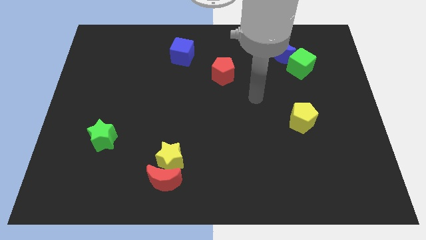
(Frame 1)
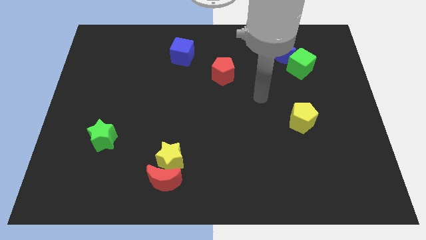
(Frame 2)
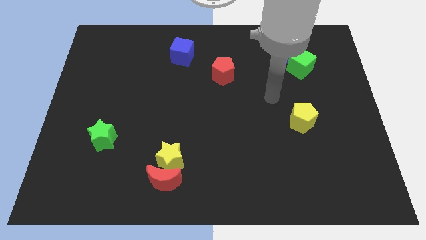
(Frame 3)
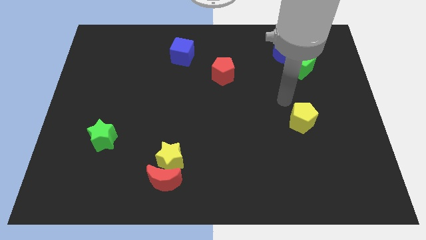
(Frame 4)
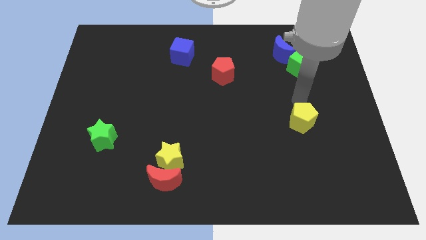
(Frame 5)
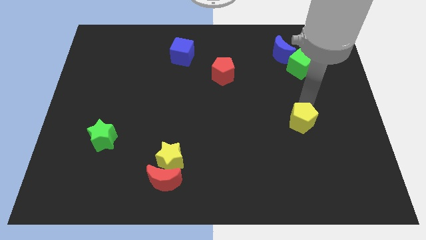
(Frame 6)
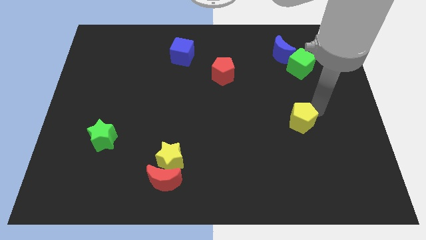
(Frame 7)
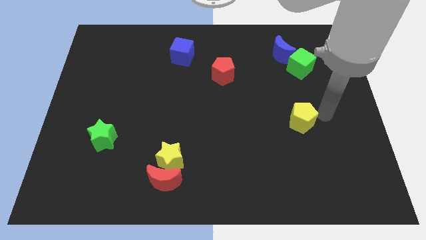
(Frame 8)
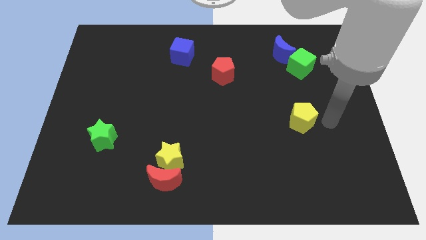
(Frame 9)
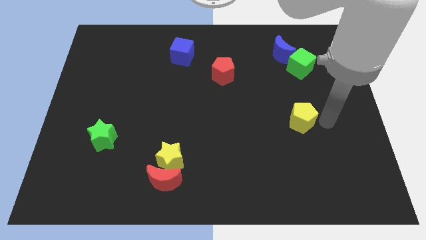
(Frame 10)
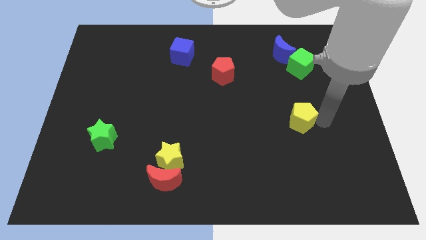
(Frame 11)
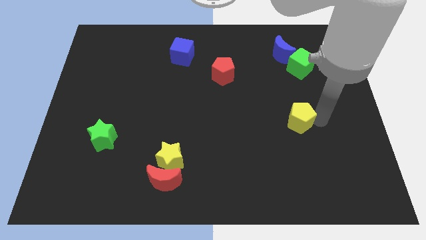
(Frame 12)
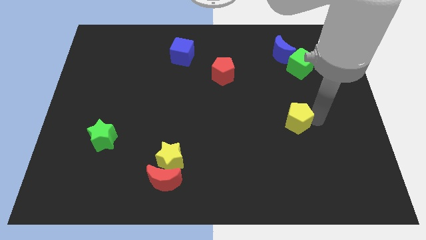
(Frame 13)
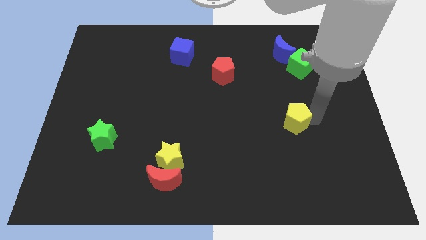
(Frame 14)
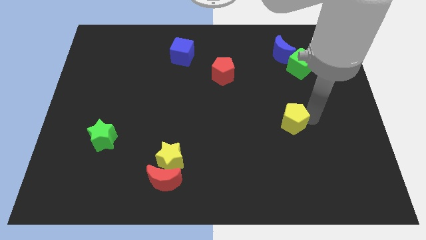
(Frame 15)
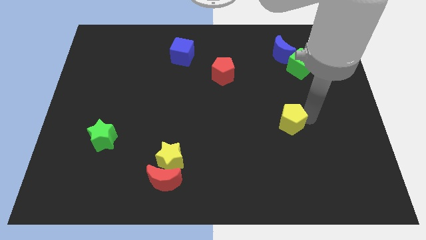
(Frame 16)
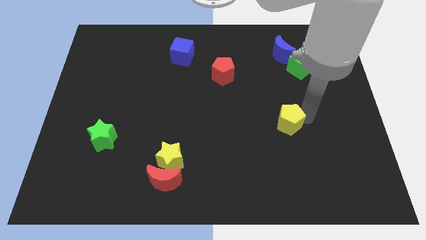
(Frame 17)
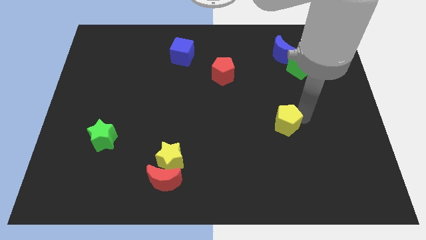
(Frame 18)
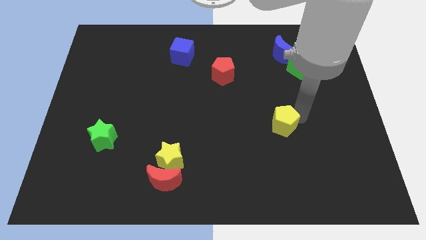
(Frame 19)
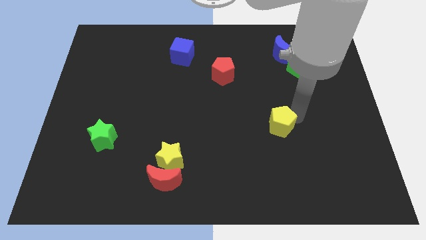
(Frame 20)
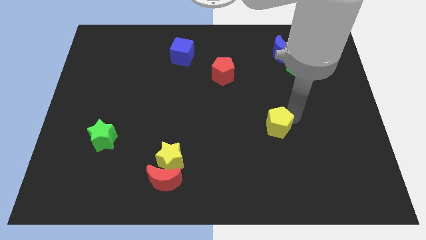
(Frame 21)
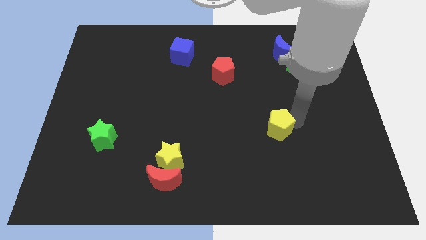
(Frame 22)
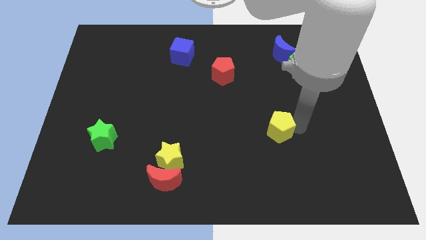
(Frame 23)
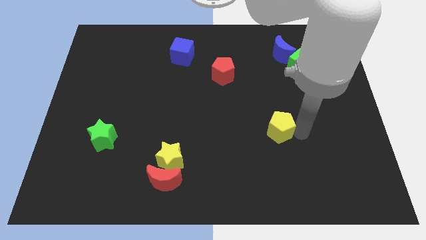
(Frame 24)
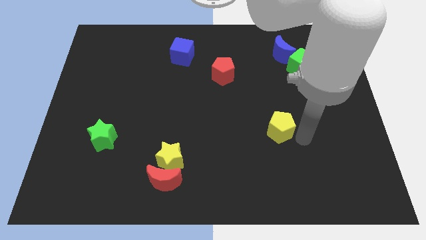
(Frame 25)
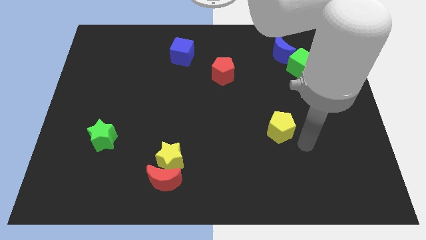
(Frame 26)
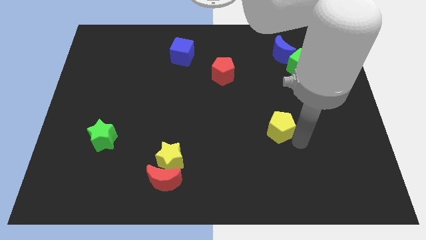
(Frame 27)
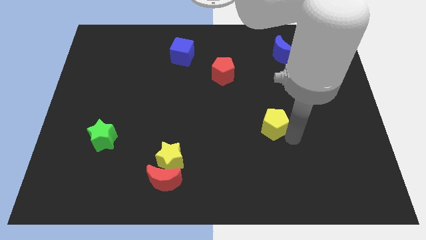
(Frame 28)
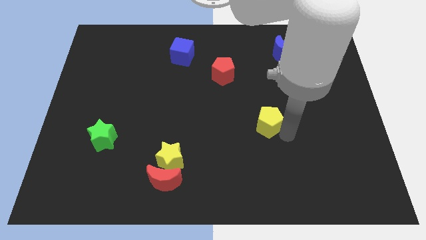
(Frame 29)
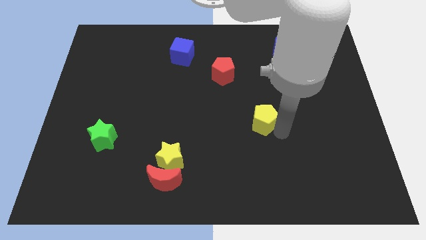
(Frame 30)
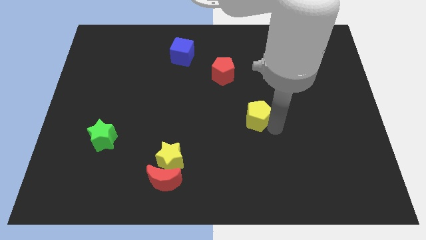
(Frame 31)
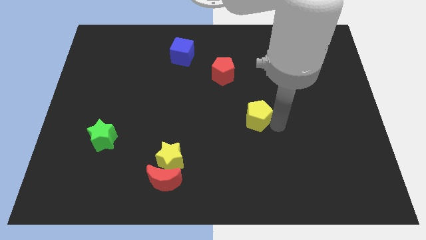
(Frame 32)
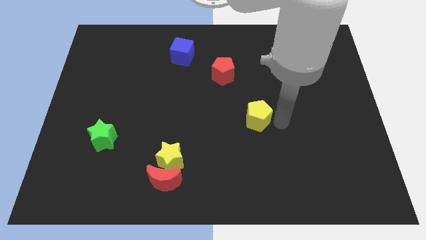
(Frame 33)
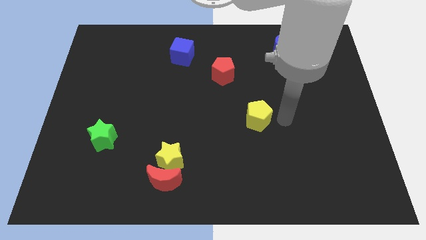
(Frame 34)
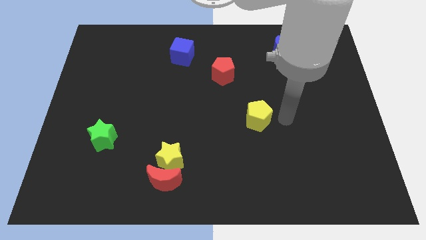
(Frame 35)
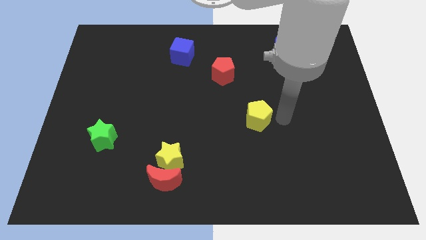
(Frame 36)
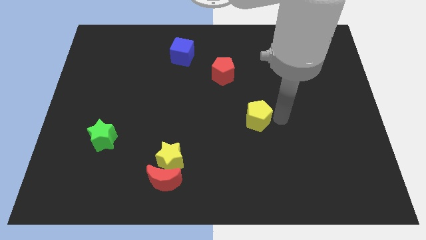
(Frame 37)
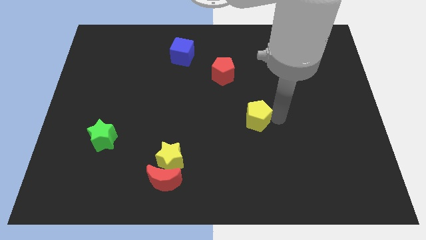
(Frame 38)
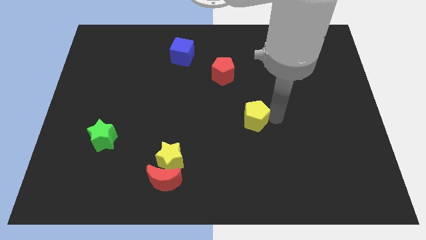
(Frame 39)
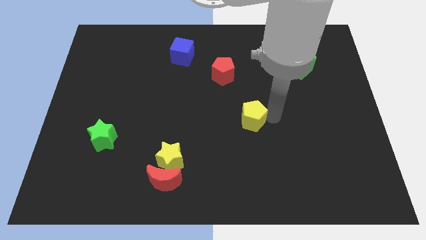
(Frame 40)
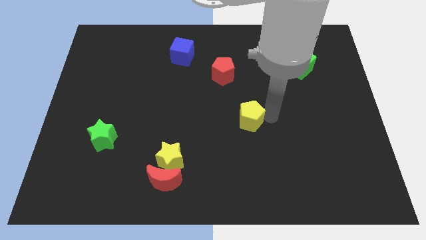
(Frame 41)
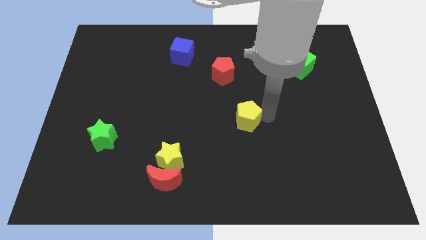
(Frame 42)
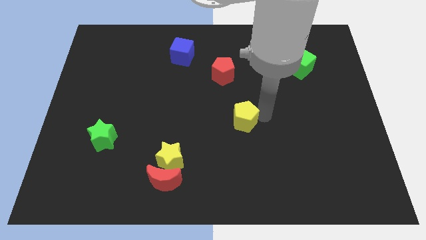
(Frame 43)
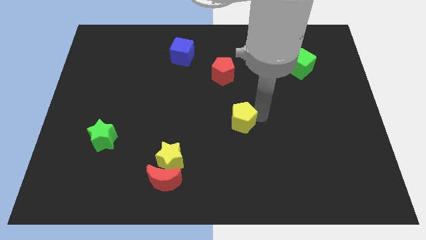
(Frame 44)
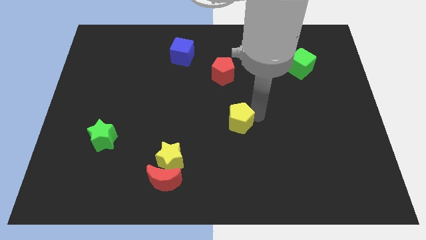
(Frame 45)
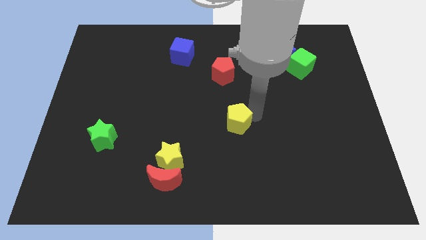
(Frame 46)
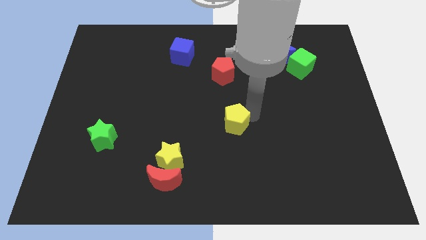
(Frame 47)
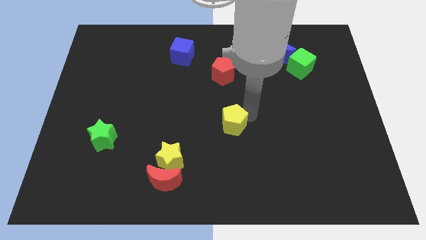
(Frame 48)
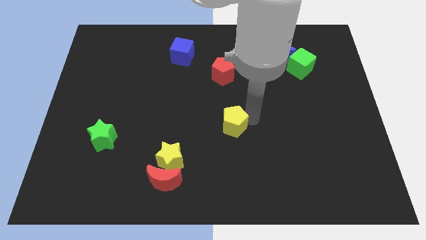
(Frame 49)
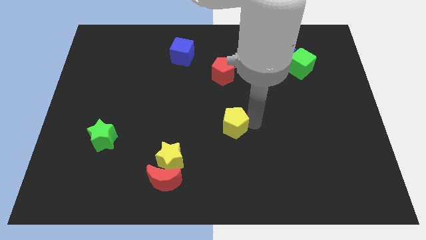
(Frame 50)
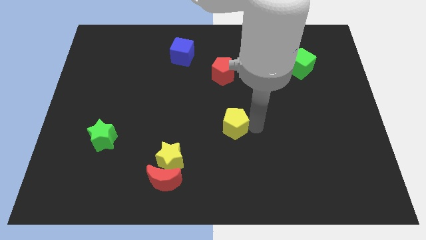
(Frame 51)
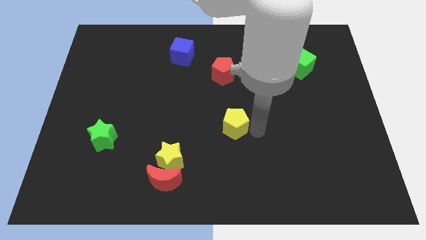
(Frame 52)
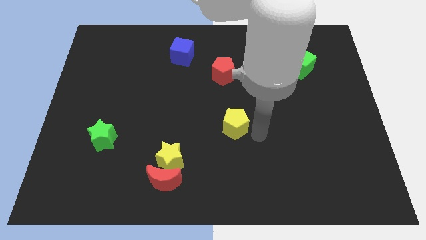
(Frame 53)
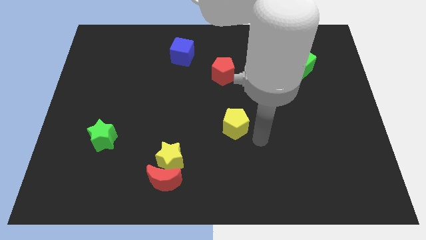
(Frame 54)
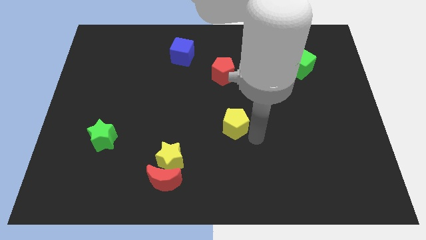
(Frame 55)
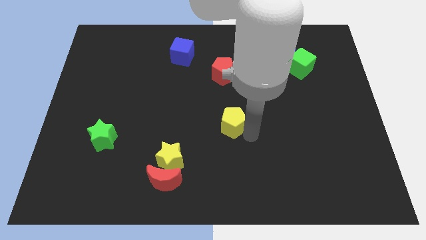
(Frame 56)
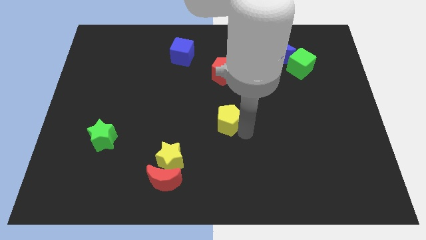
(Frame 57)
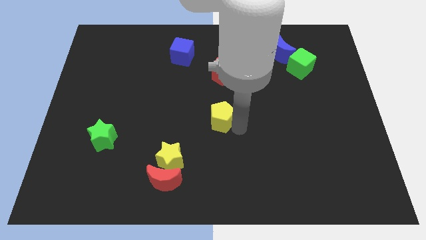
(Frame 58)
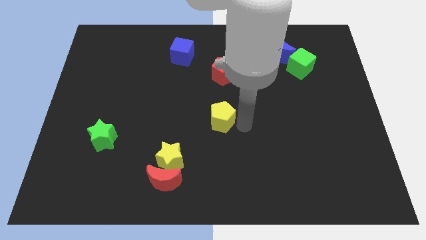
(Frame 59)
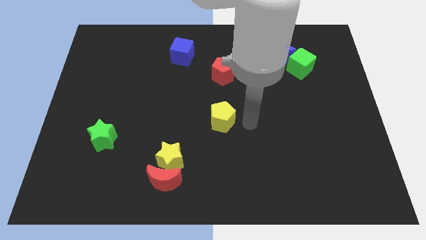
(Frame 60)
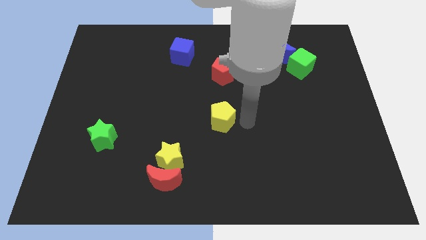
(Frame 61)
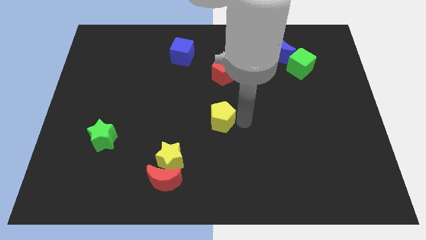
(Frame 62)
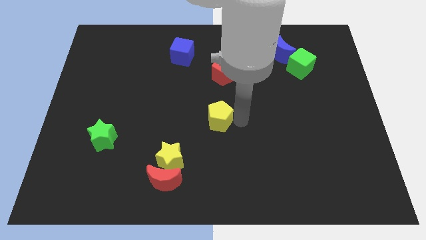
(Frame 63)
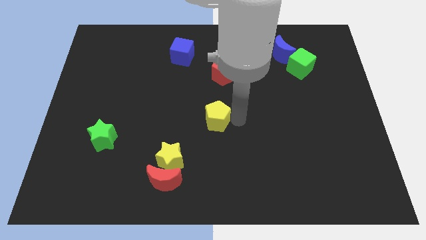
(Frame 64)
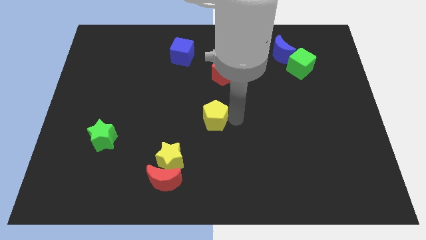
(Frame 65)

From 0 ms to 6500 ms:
move the yellow pentagon left

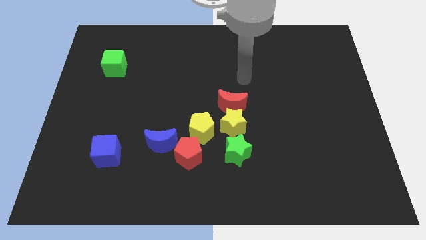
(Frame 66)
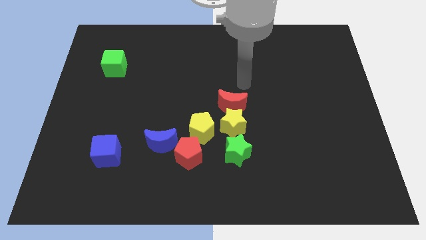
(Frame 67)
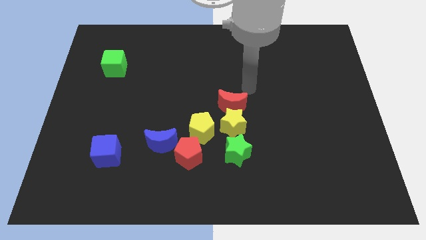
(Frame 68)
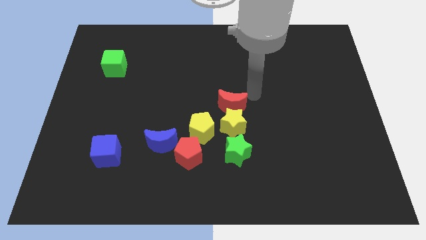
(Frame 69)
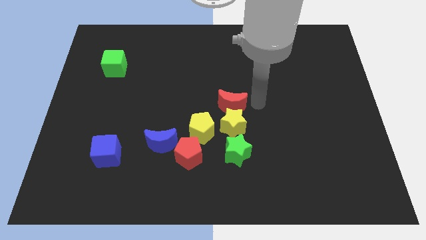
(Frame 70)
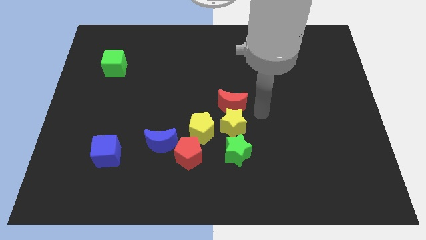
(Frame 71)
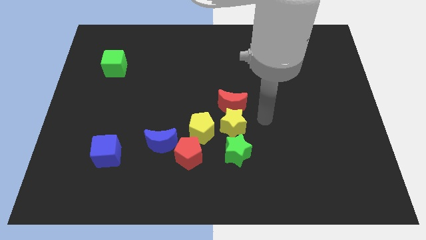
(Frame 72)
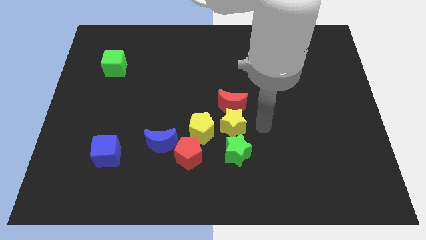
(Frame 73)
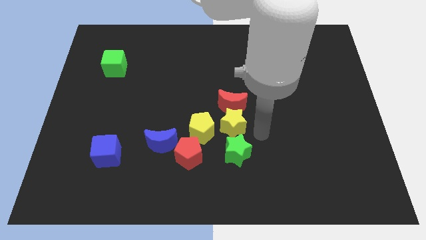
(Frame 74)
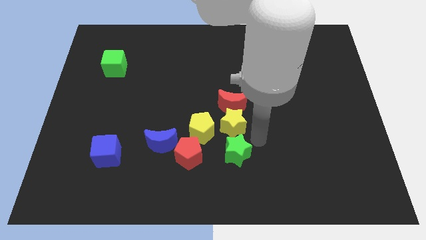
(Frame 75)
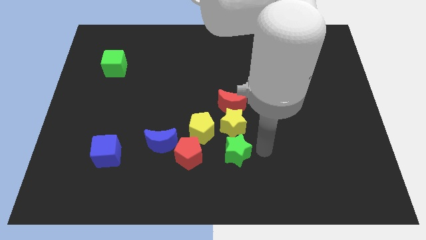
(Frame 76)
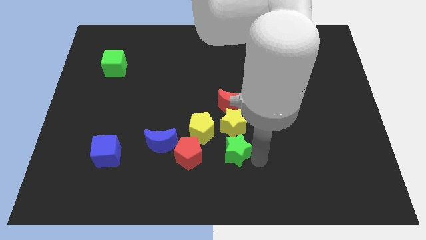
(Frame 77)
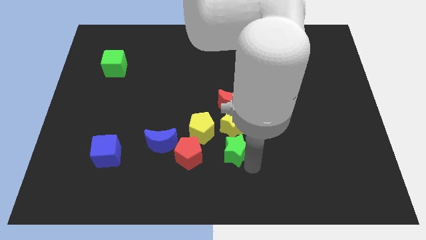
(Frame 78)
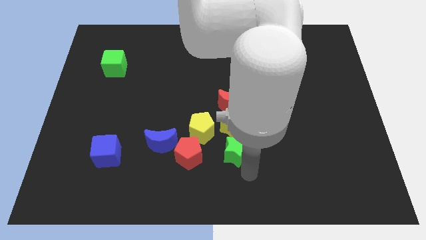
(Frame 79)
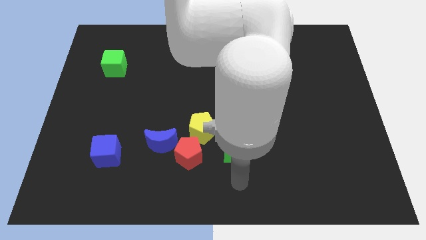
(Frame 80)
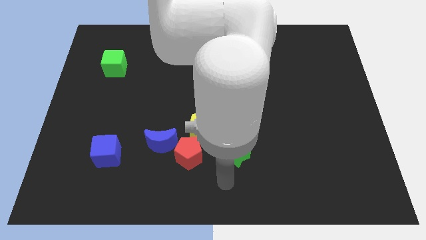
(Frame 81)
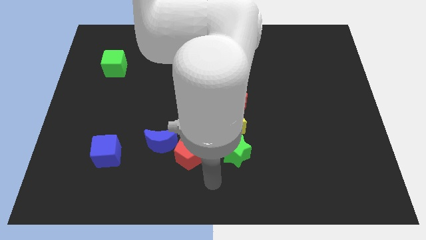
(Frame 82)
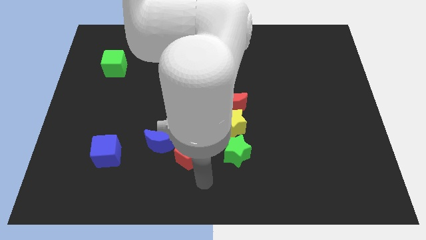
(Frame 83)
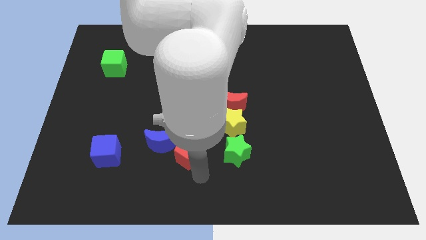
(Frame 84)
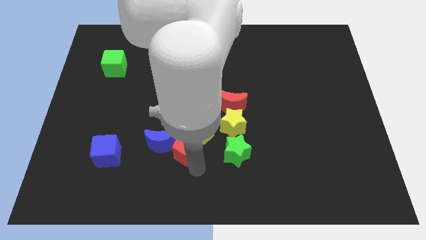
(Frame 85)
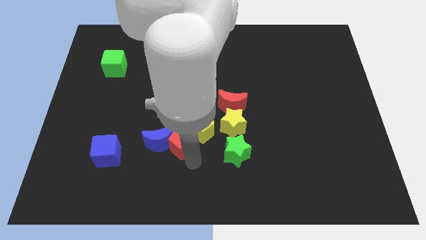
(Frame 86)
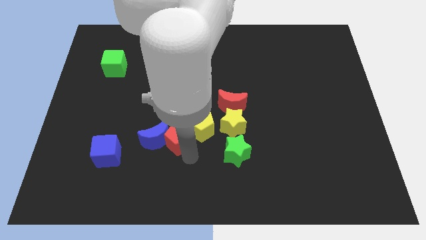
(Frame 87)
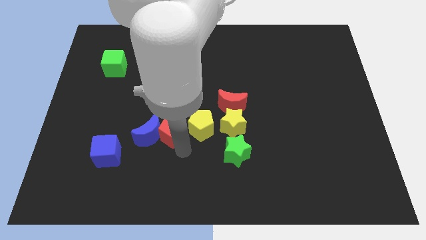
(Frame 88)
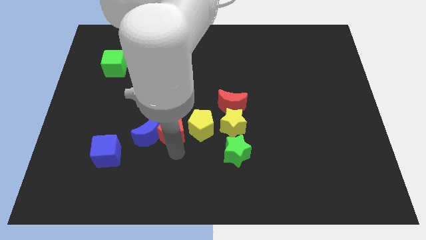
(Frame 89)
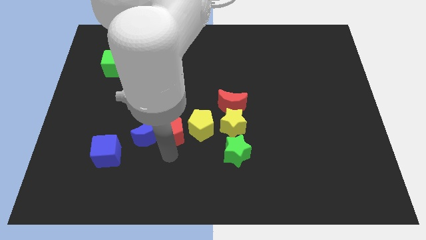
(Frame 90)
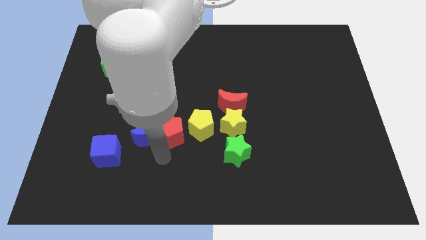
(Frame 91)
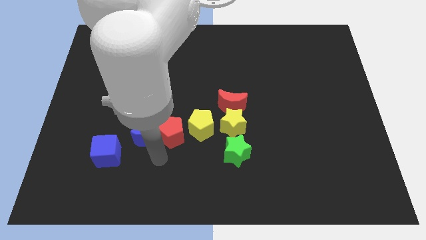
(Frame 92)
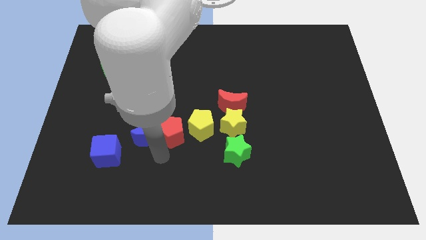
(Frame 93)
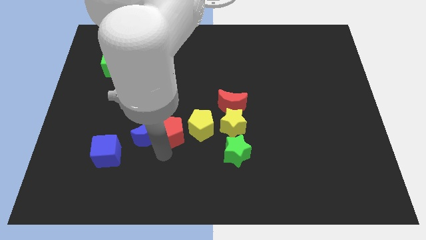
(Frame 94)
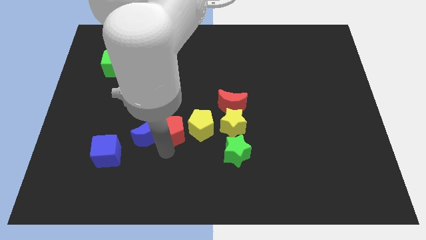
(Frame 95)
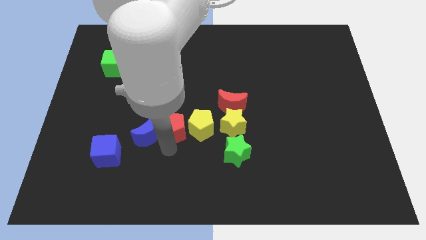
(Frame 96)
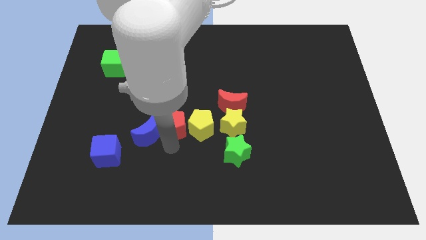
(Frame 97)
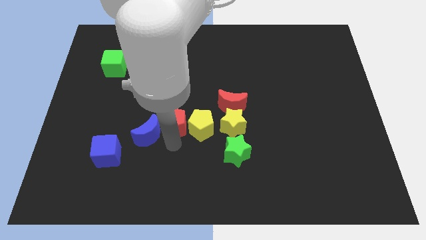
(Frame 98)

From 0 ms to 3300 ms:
slide the red pentagon upwards a little
